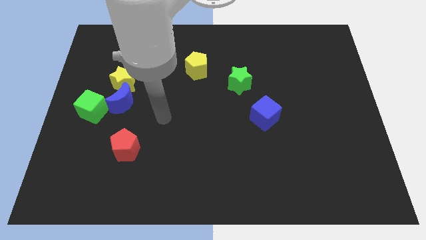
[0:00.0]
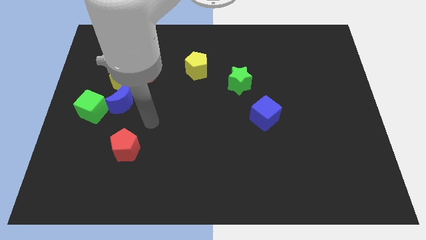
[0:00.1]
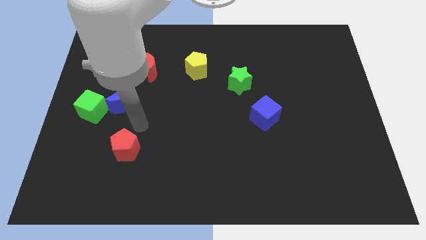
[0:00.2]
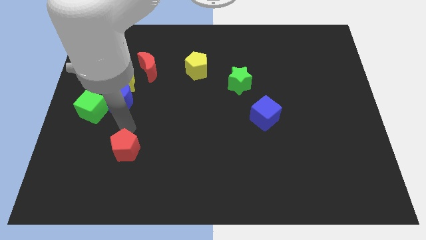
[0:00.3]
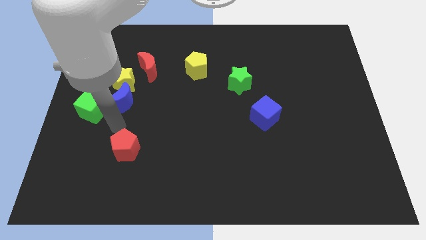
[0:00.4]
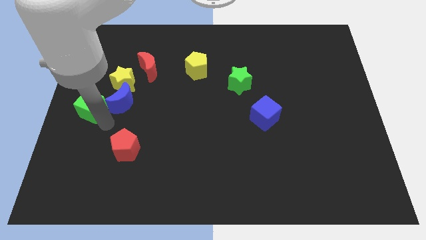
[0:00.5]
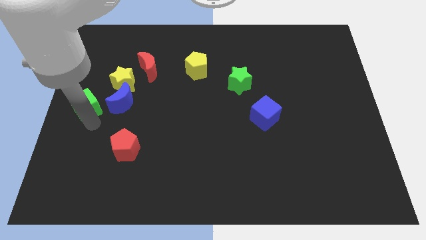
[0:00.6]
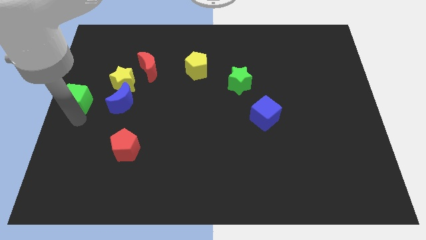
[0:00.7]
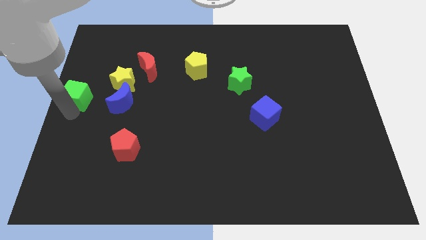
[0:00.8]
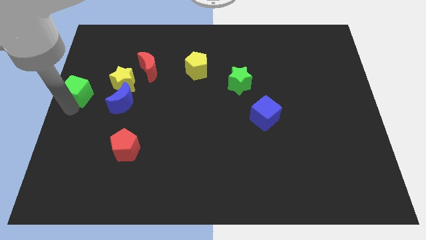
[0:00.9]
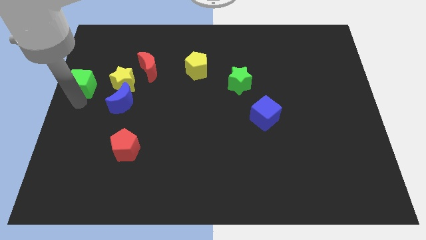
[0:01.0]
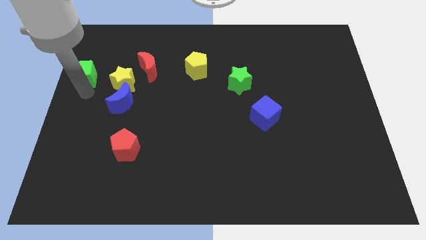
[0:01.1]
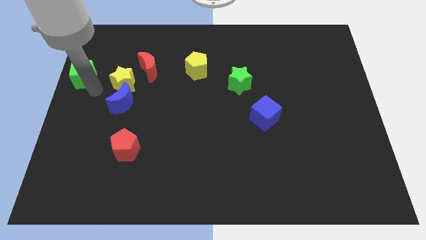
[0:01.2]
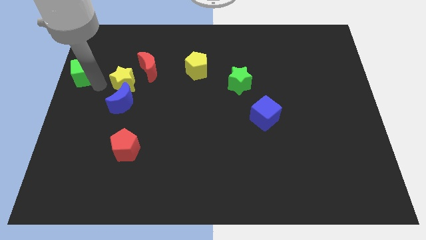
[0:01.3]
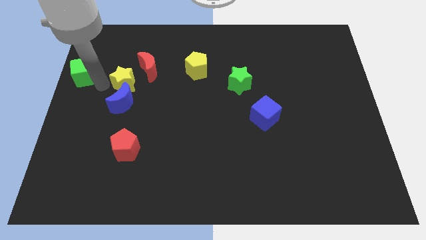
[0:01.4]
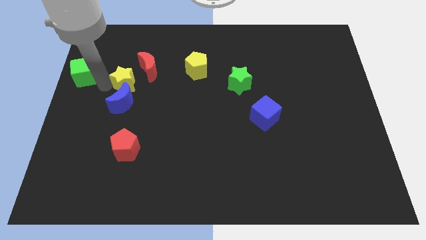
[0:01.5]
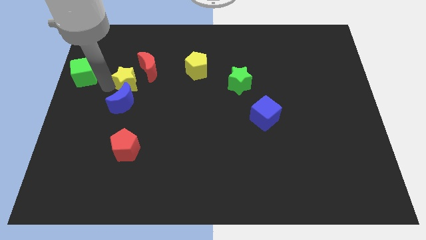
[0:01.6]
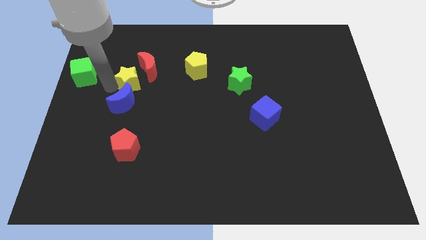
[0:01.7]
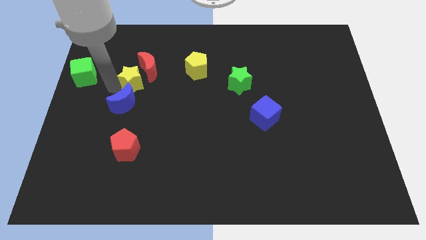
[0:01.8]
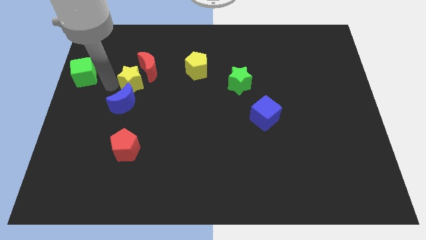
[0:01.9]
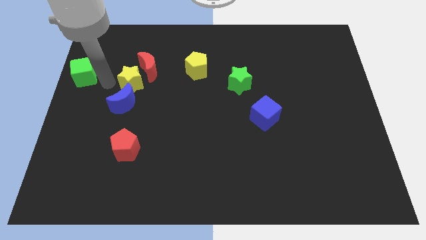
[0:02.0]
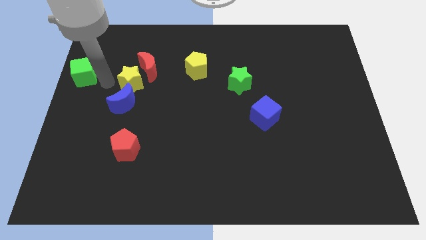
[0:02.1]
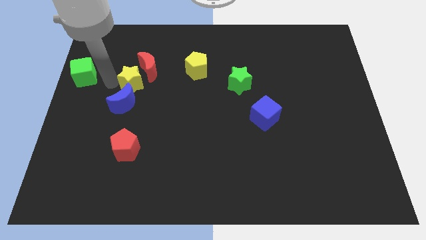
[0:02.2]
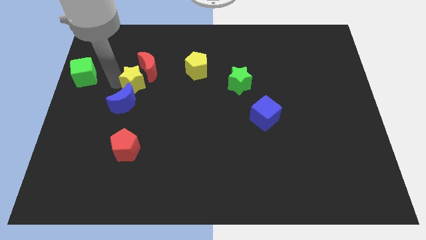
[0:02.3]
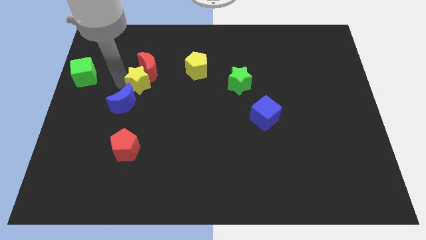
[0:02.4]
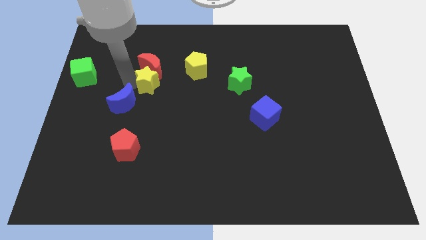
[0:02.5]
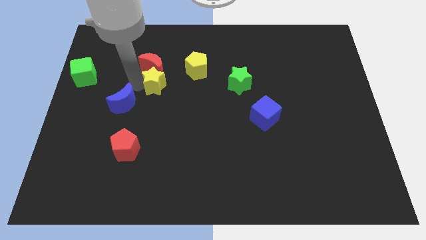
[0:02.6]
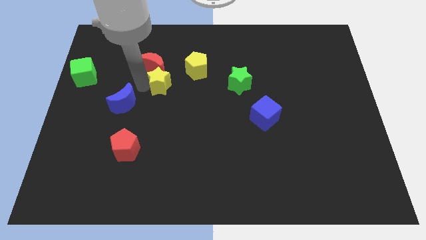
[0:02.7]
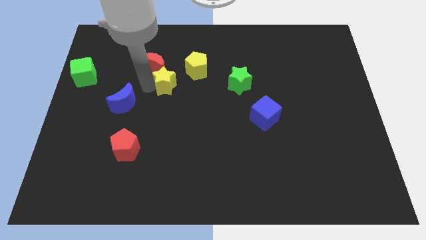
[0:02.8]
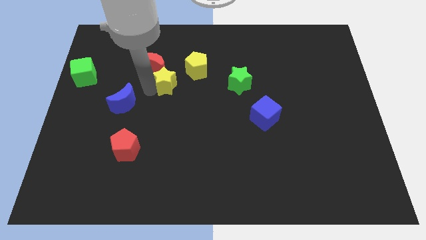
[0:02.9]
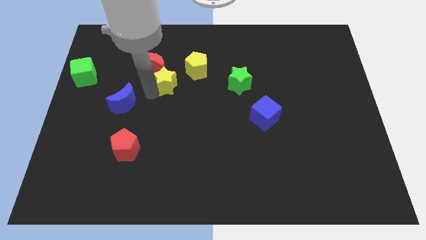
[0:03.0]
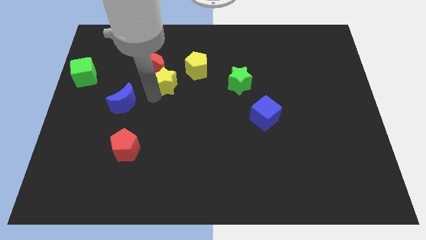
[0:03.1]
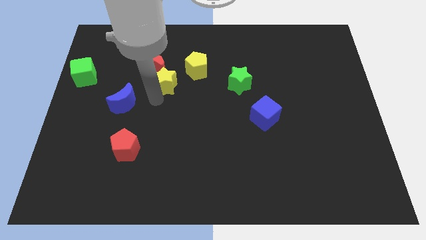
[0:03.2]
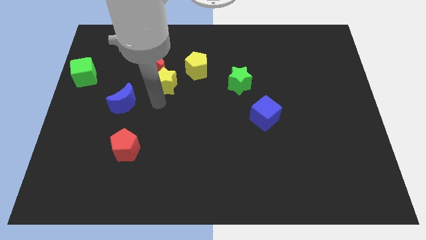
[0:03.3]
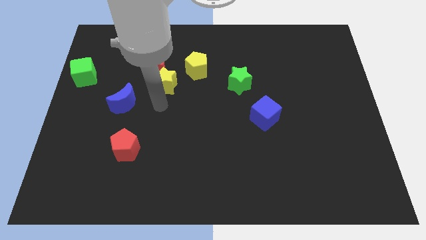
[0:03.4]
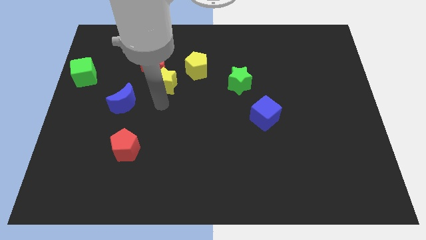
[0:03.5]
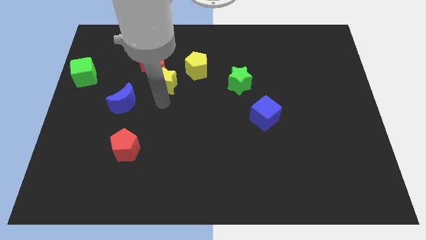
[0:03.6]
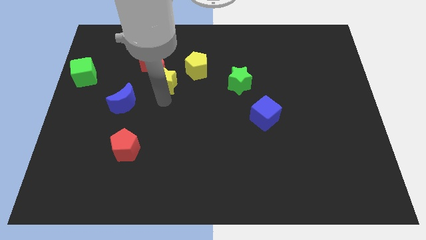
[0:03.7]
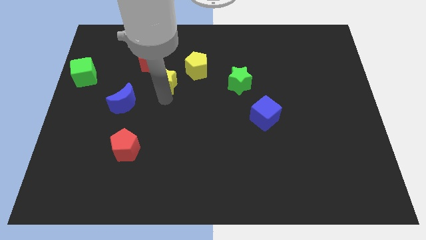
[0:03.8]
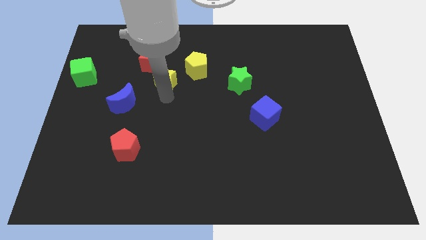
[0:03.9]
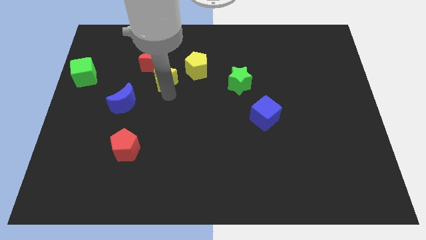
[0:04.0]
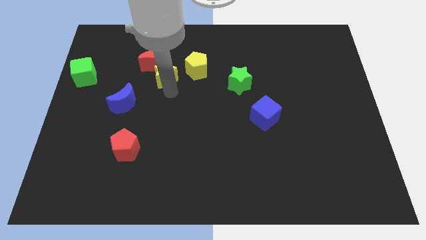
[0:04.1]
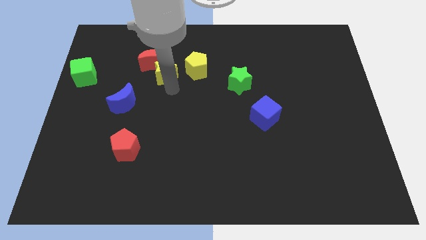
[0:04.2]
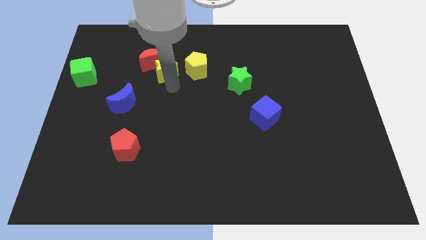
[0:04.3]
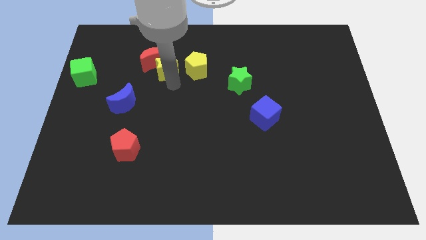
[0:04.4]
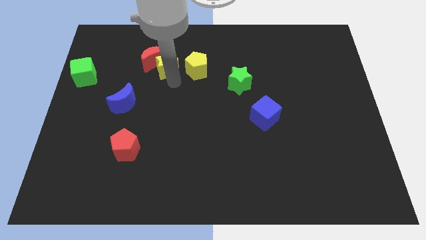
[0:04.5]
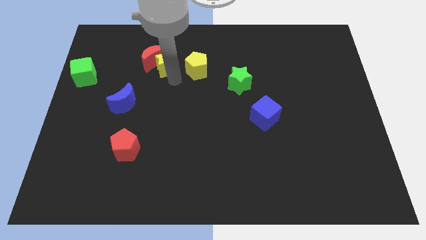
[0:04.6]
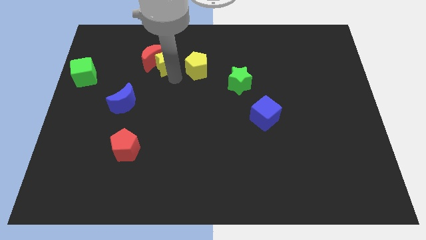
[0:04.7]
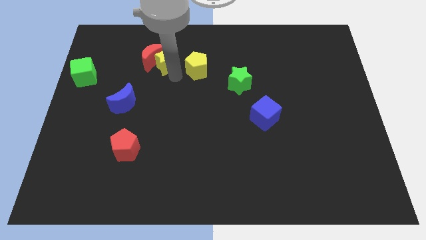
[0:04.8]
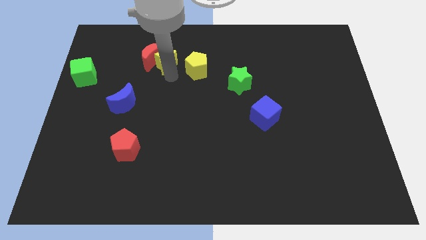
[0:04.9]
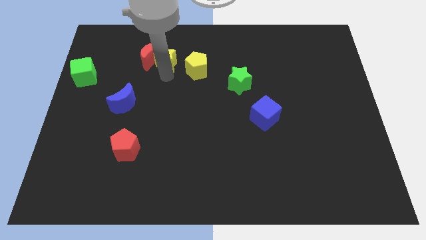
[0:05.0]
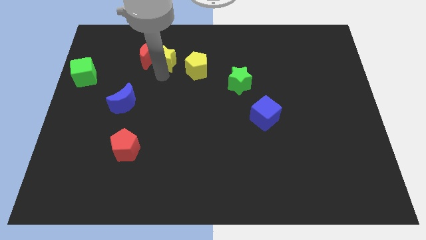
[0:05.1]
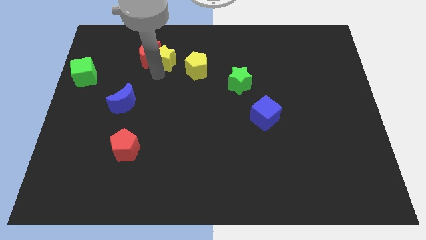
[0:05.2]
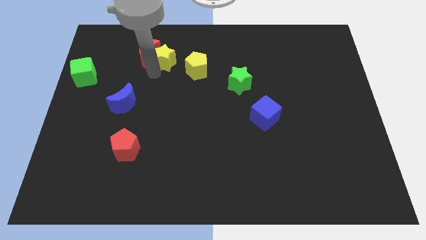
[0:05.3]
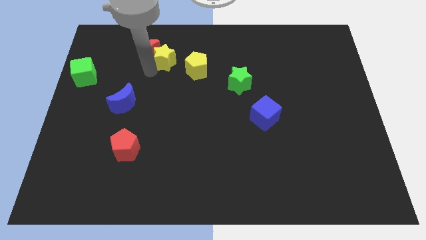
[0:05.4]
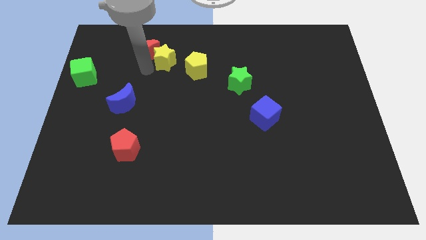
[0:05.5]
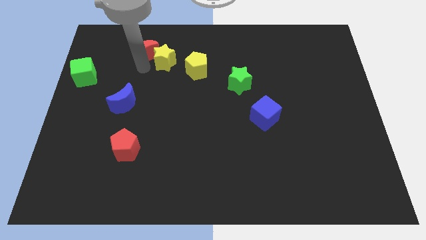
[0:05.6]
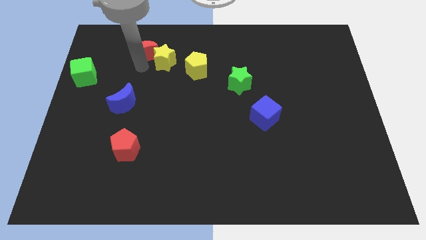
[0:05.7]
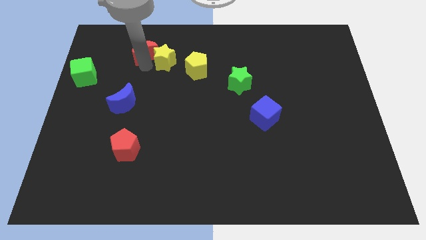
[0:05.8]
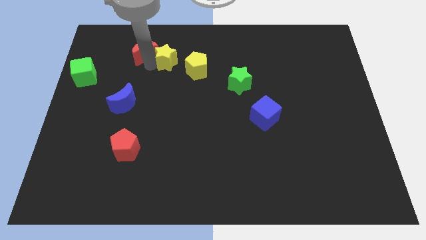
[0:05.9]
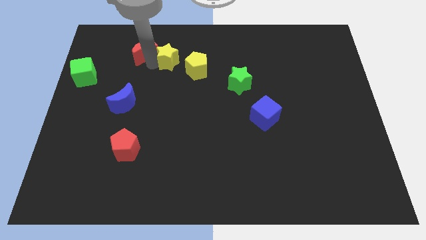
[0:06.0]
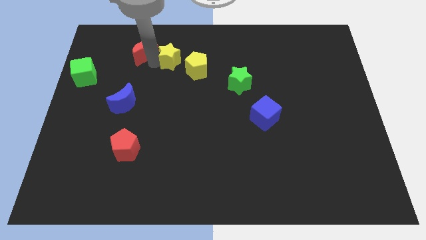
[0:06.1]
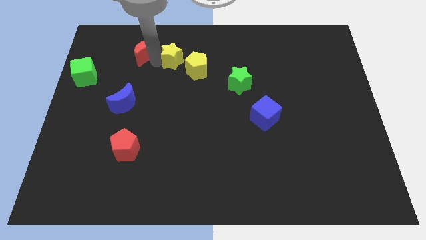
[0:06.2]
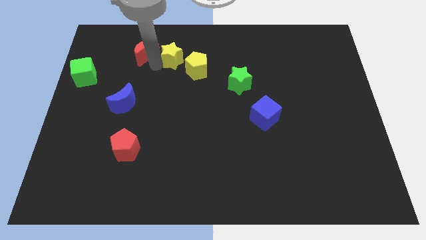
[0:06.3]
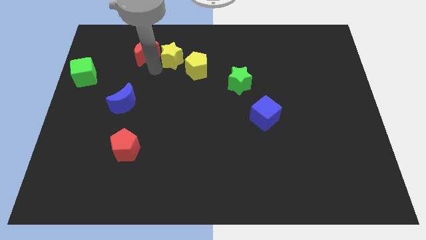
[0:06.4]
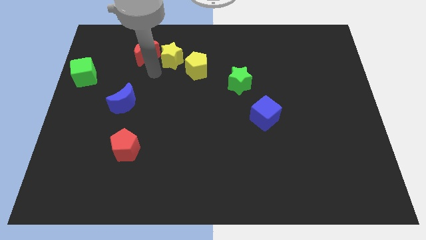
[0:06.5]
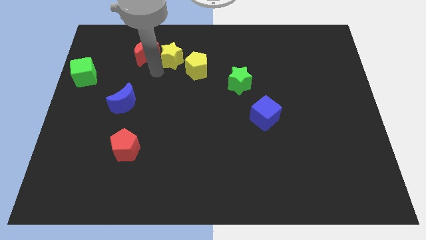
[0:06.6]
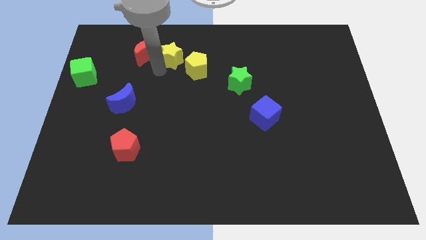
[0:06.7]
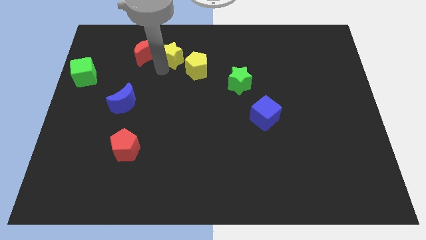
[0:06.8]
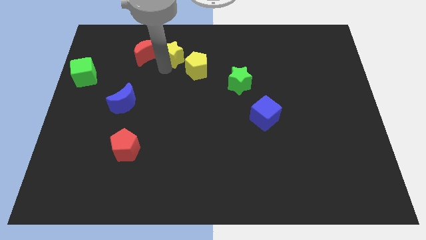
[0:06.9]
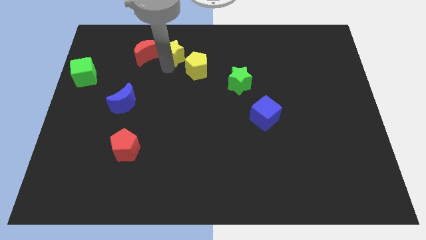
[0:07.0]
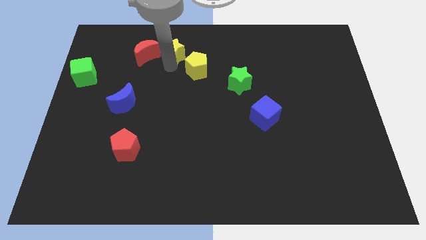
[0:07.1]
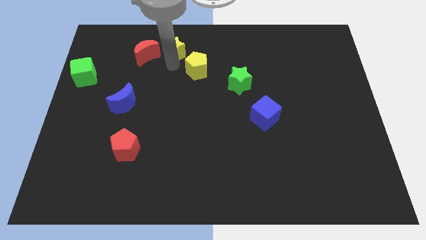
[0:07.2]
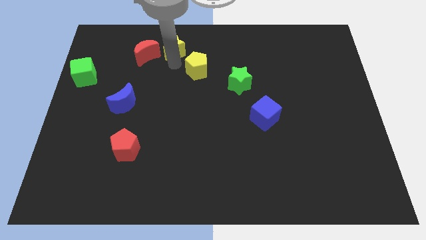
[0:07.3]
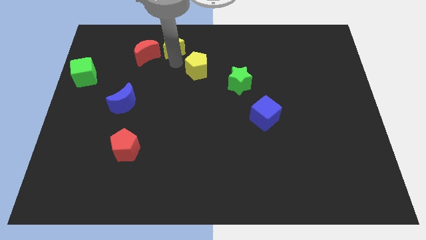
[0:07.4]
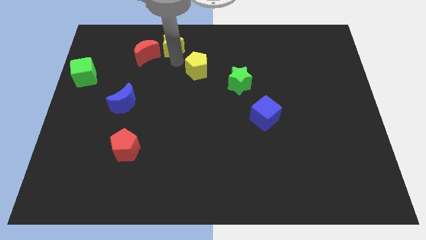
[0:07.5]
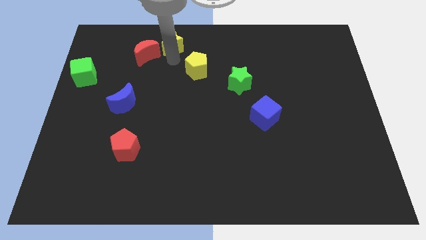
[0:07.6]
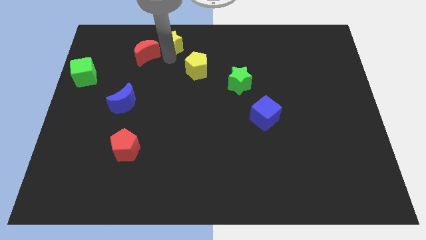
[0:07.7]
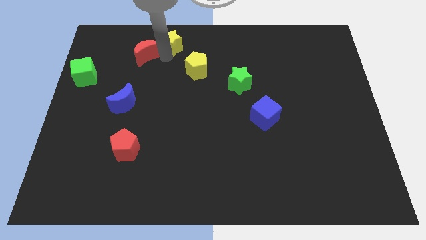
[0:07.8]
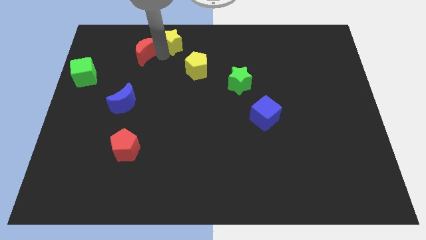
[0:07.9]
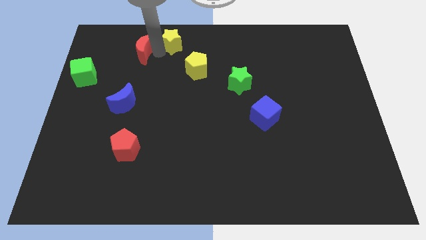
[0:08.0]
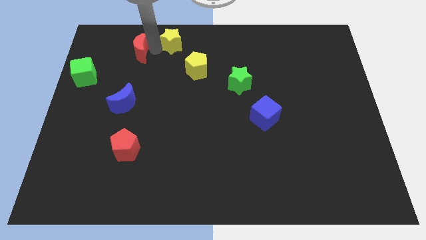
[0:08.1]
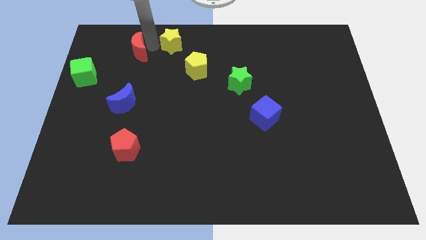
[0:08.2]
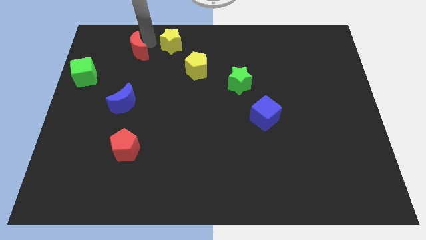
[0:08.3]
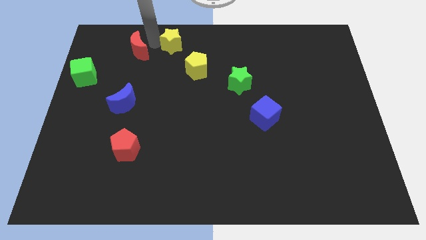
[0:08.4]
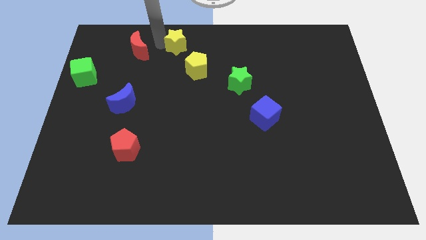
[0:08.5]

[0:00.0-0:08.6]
move the yellow star to the top side
